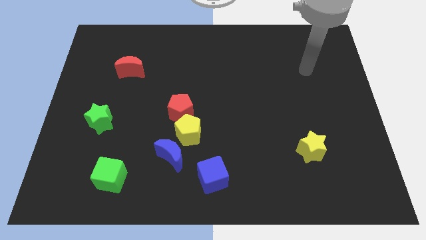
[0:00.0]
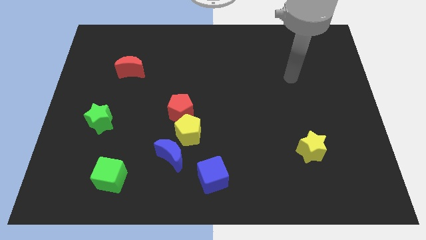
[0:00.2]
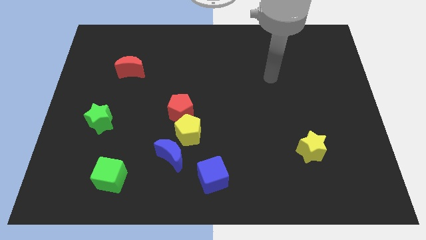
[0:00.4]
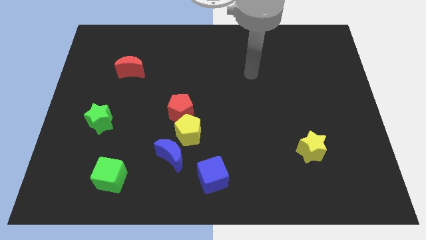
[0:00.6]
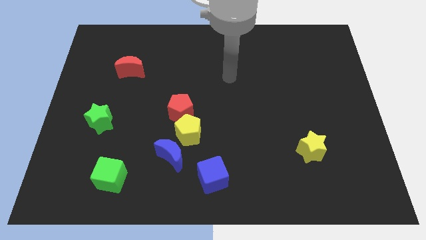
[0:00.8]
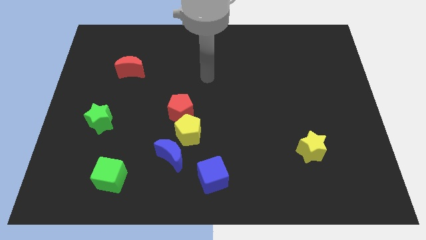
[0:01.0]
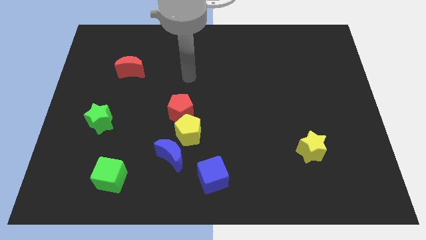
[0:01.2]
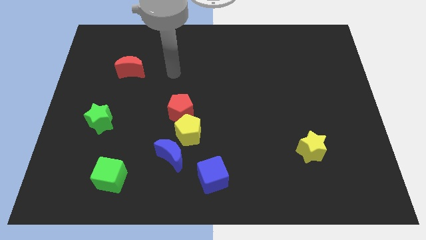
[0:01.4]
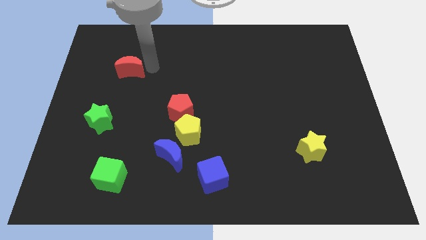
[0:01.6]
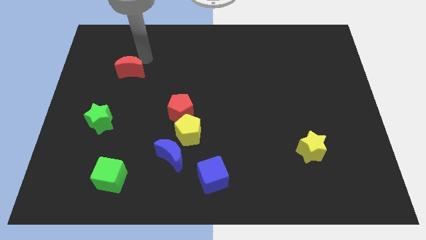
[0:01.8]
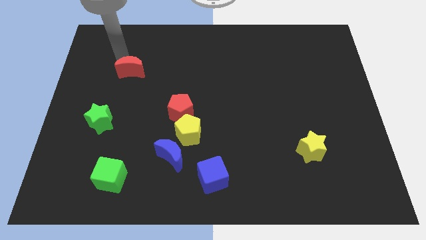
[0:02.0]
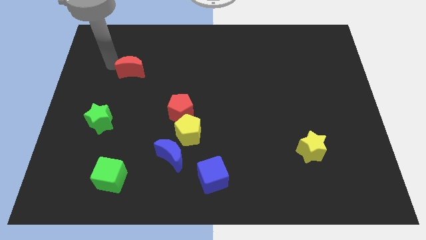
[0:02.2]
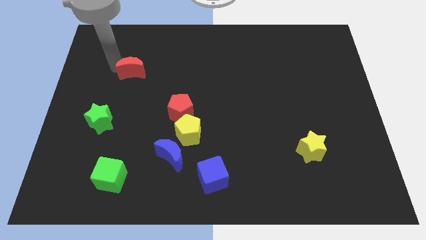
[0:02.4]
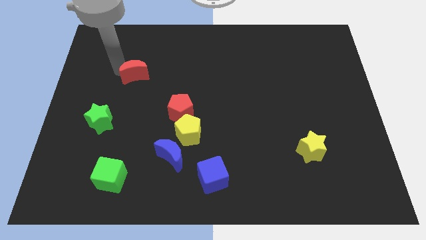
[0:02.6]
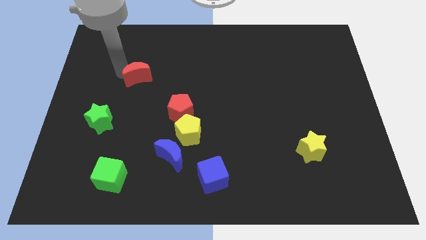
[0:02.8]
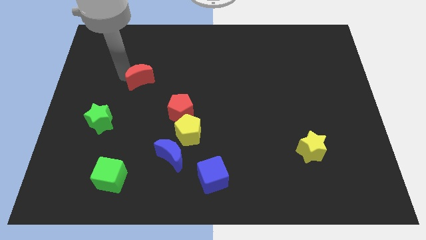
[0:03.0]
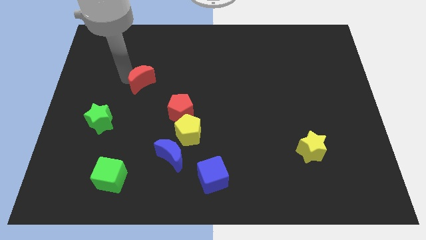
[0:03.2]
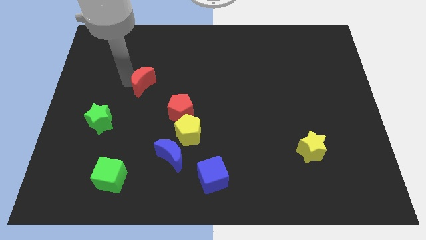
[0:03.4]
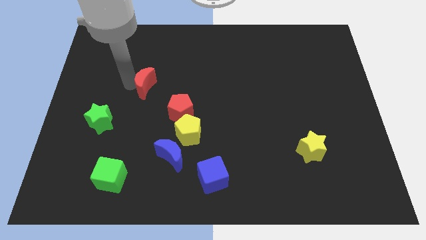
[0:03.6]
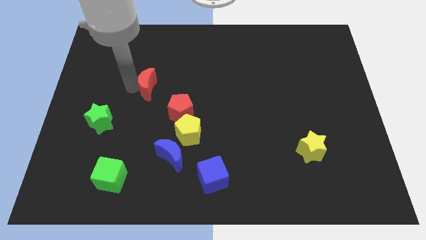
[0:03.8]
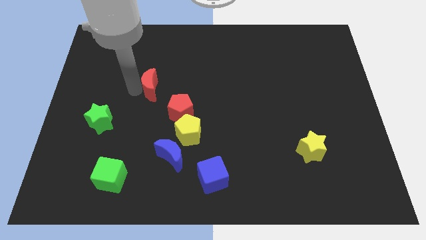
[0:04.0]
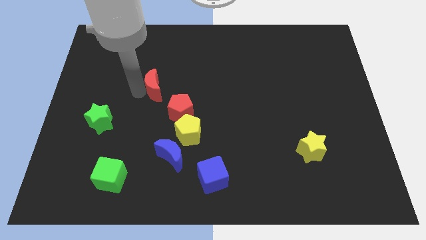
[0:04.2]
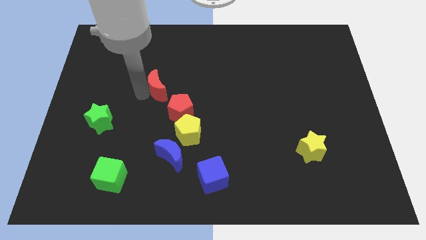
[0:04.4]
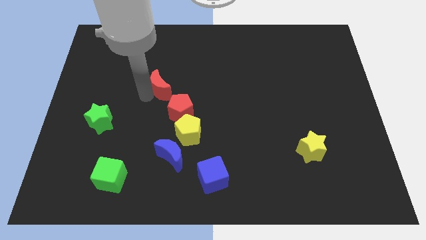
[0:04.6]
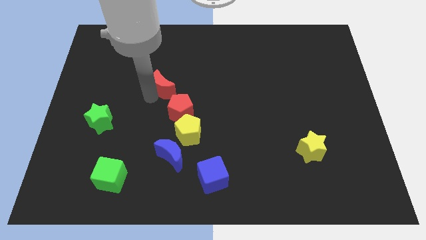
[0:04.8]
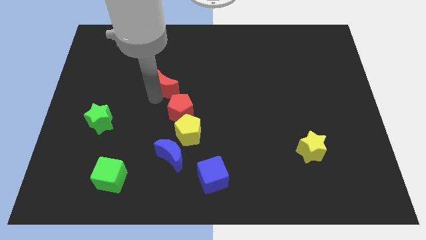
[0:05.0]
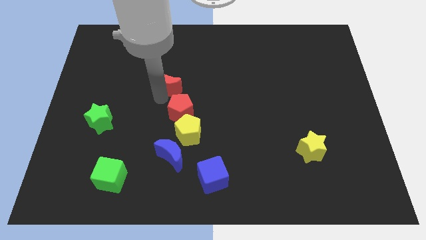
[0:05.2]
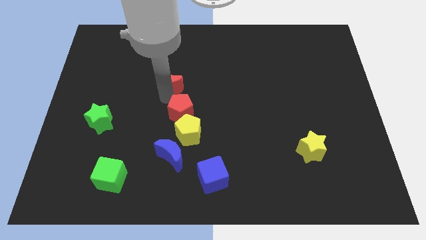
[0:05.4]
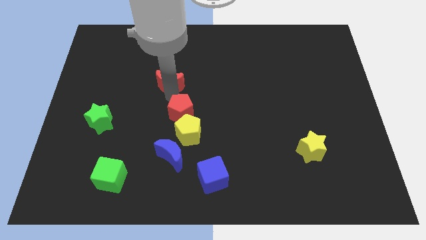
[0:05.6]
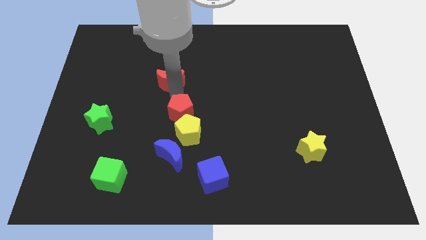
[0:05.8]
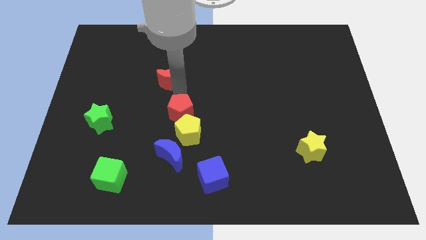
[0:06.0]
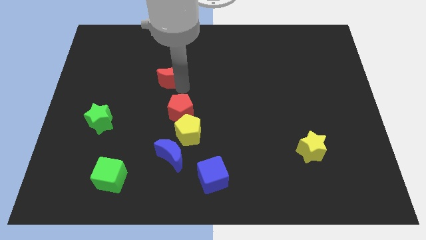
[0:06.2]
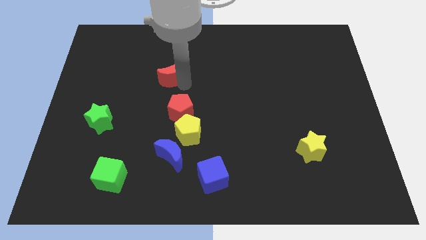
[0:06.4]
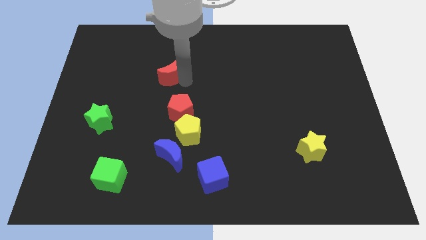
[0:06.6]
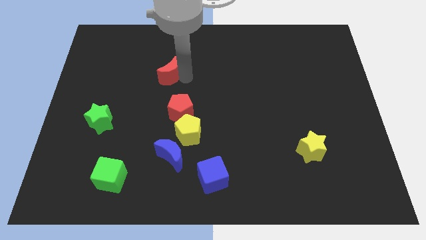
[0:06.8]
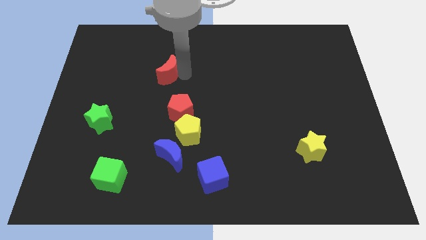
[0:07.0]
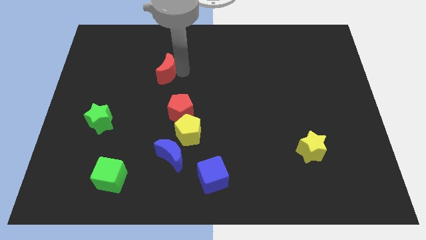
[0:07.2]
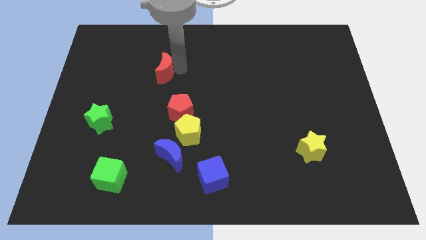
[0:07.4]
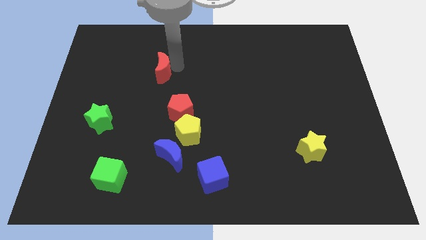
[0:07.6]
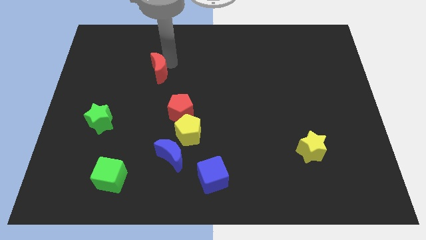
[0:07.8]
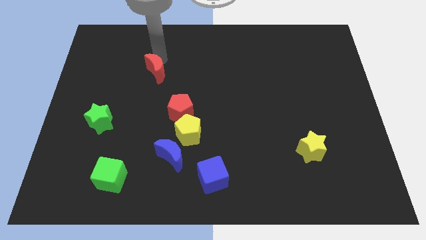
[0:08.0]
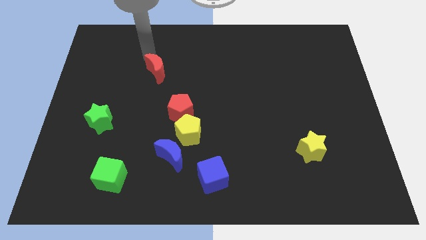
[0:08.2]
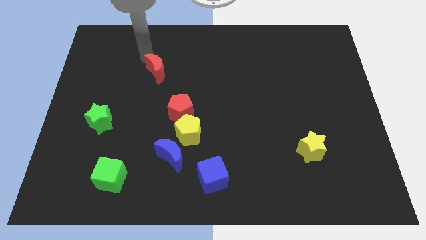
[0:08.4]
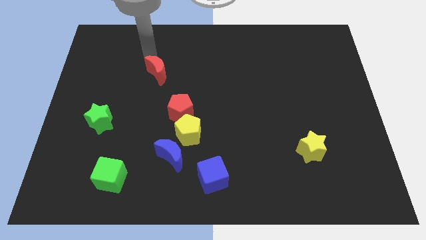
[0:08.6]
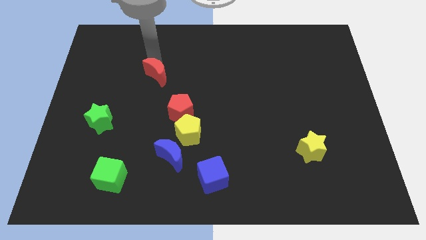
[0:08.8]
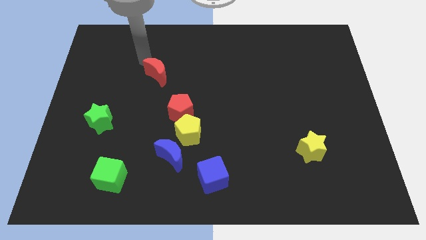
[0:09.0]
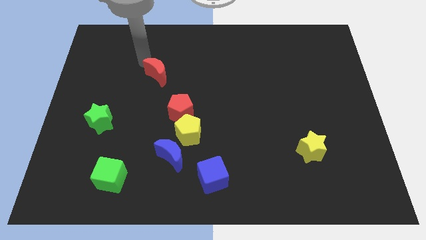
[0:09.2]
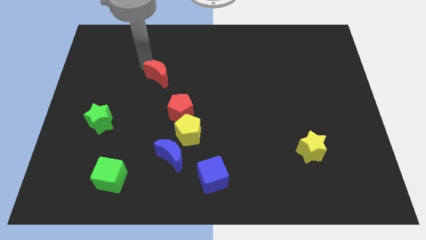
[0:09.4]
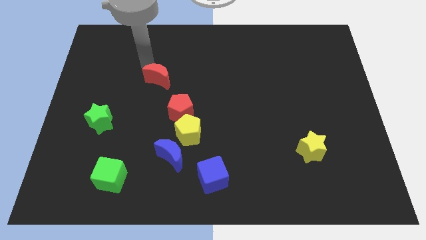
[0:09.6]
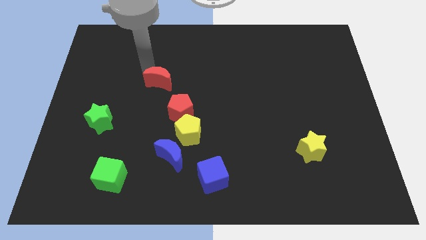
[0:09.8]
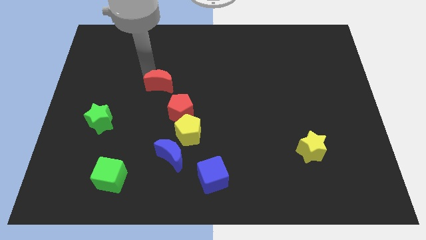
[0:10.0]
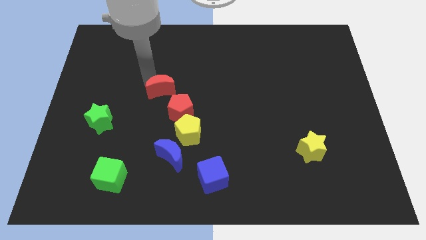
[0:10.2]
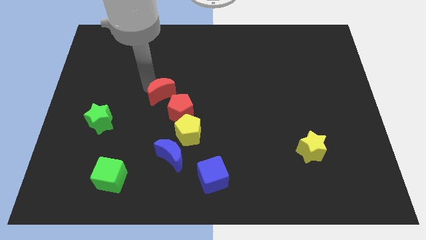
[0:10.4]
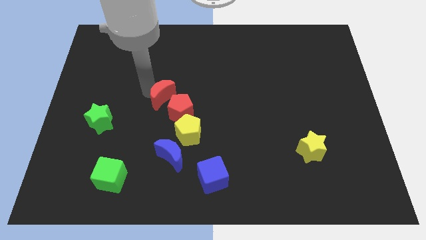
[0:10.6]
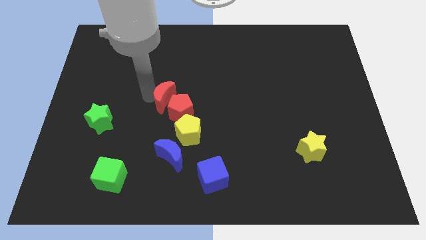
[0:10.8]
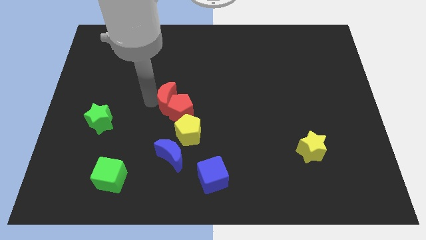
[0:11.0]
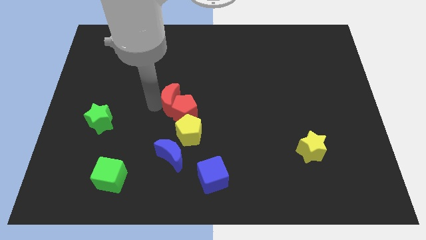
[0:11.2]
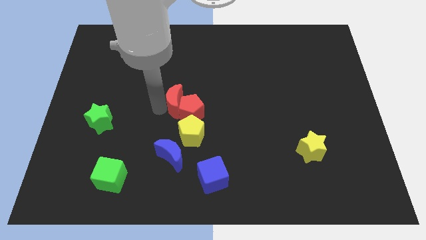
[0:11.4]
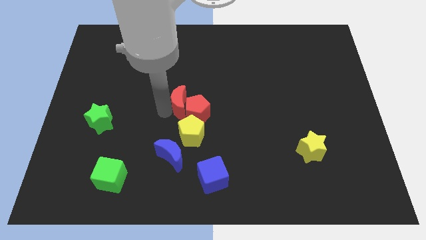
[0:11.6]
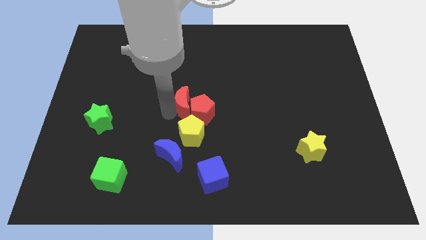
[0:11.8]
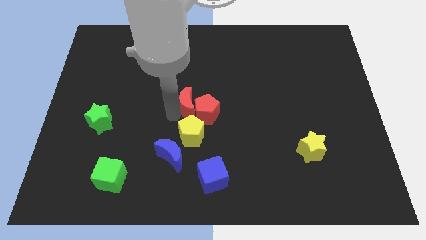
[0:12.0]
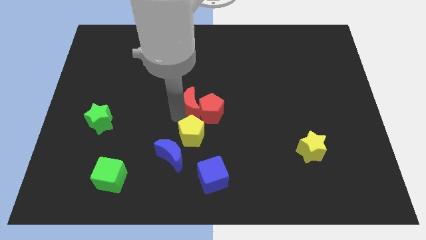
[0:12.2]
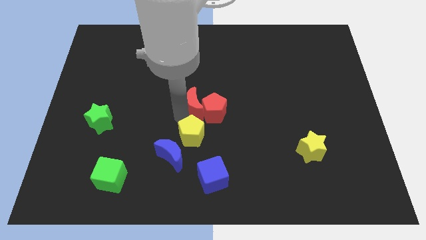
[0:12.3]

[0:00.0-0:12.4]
slide the red moon downwards and to the right

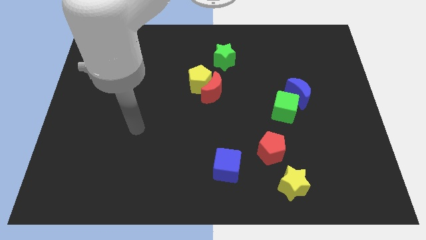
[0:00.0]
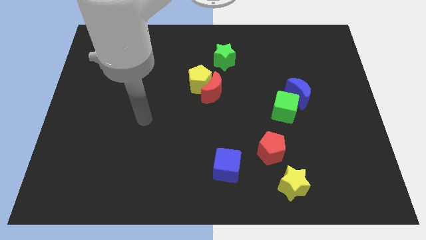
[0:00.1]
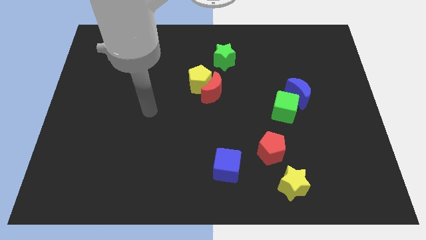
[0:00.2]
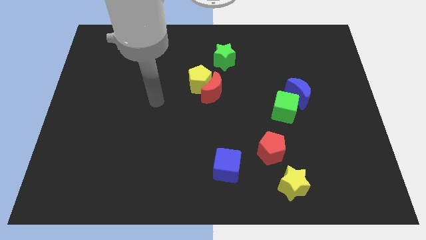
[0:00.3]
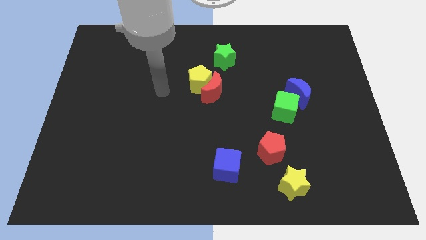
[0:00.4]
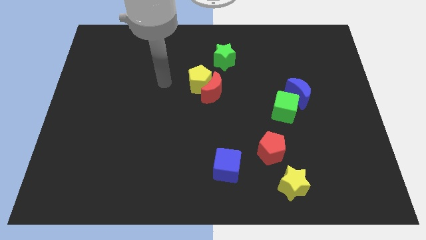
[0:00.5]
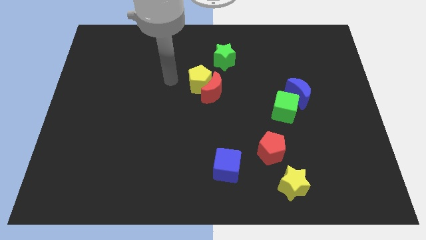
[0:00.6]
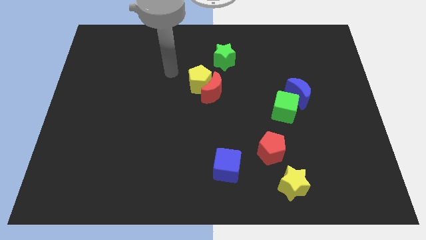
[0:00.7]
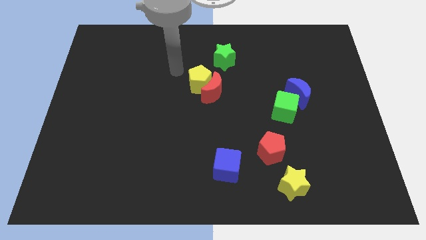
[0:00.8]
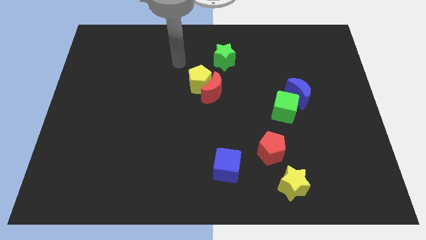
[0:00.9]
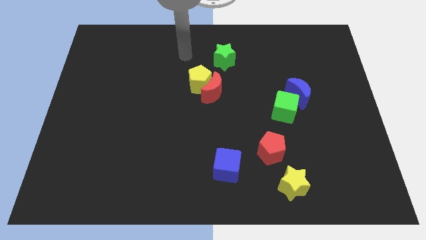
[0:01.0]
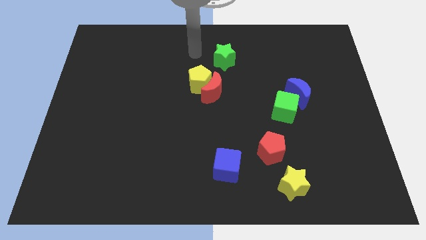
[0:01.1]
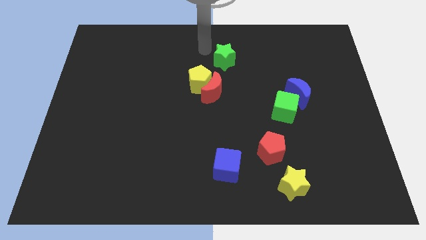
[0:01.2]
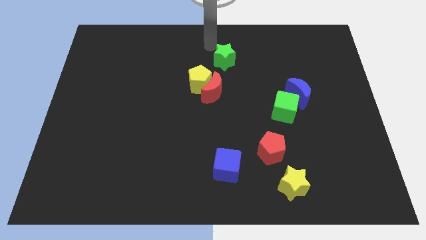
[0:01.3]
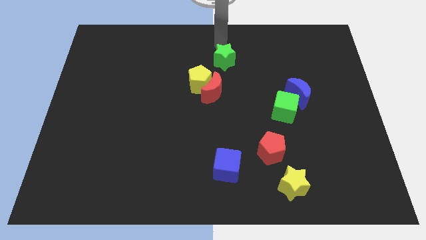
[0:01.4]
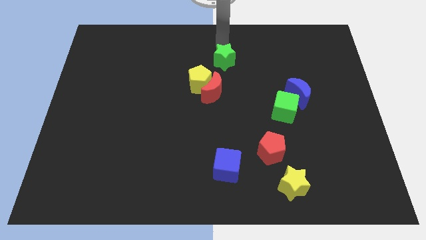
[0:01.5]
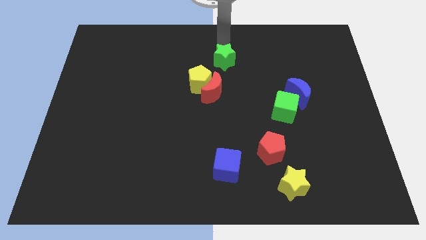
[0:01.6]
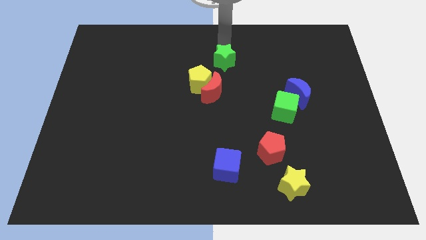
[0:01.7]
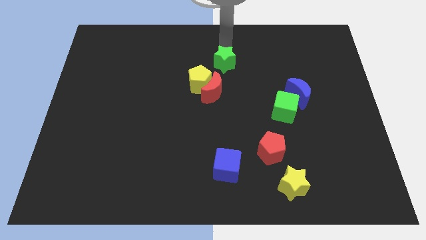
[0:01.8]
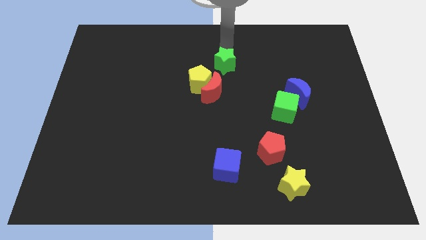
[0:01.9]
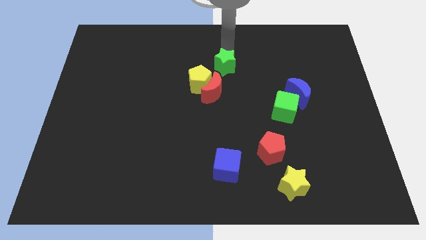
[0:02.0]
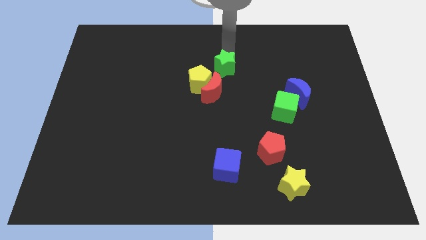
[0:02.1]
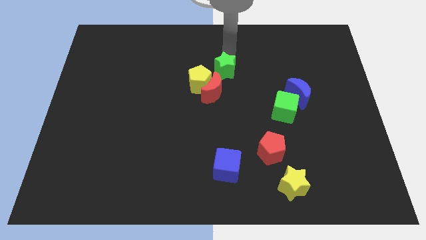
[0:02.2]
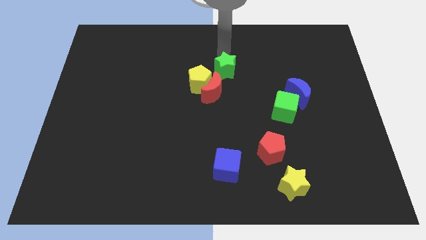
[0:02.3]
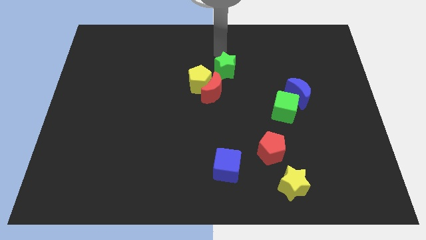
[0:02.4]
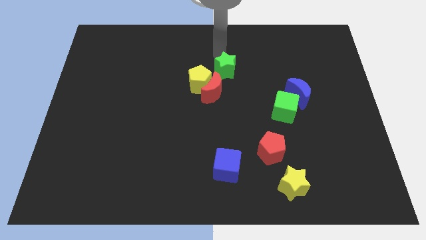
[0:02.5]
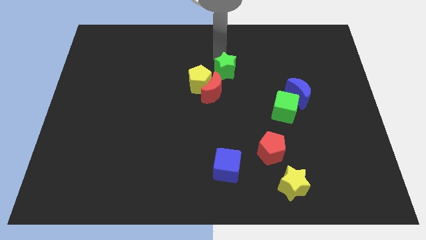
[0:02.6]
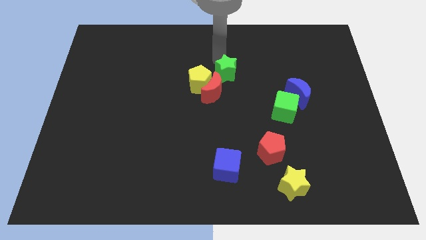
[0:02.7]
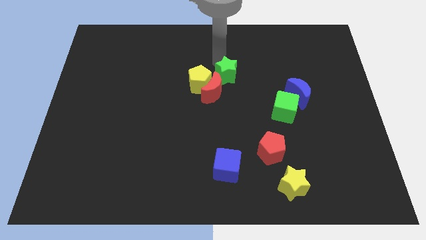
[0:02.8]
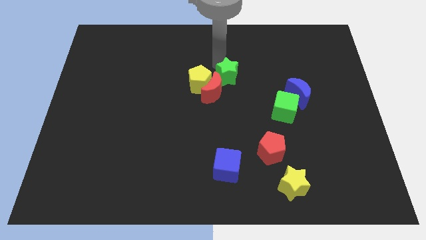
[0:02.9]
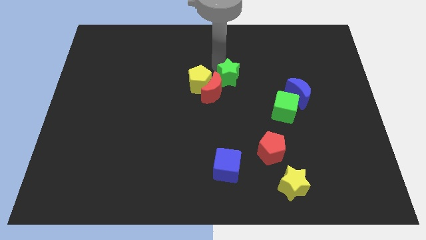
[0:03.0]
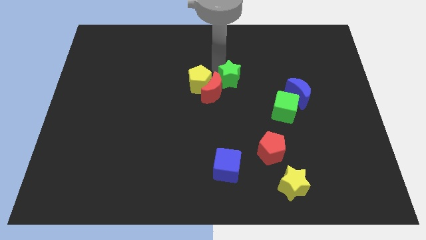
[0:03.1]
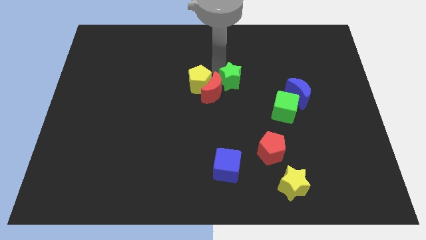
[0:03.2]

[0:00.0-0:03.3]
move the green star somewhat down
